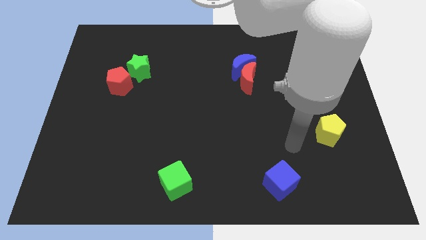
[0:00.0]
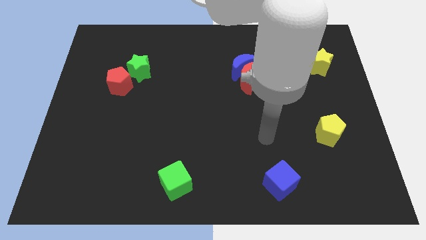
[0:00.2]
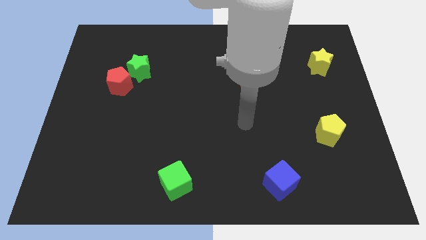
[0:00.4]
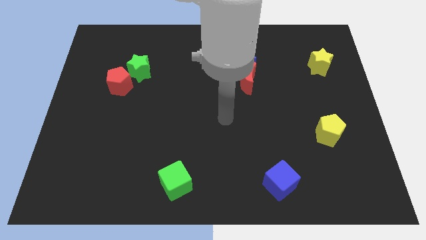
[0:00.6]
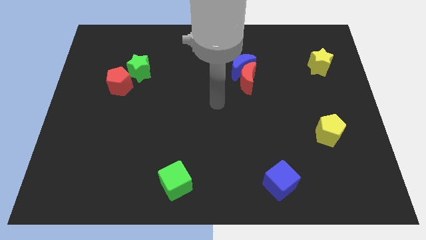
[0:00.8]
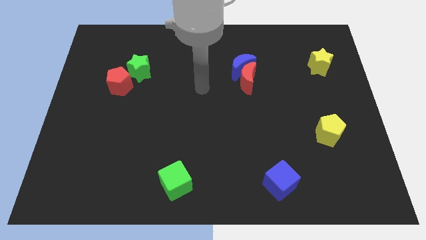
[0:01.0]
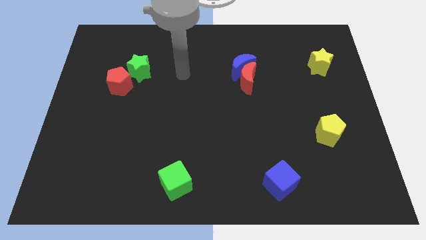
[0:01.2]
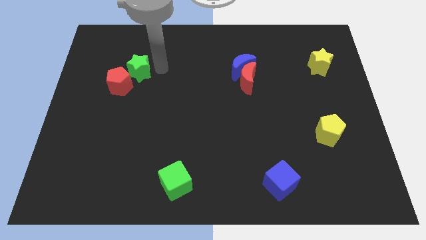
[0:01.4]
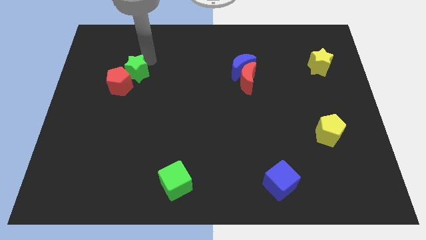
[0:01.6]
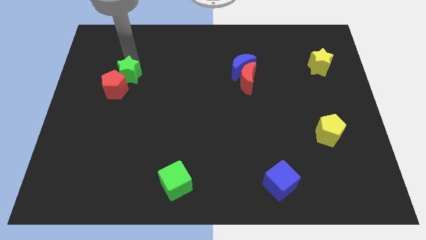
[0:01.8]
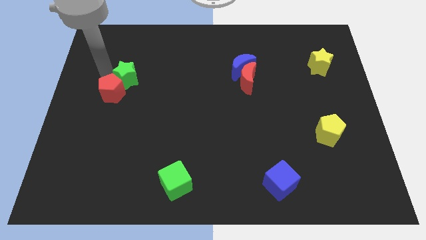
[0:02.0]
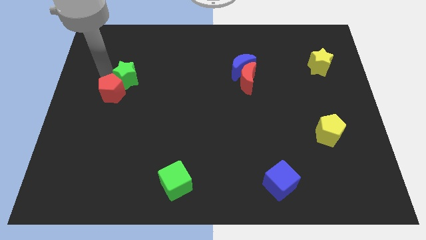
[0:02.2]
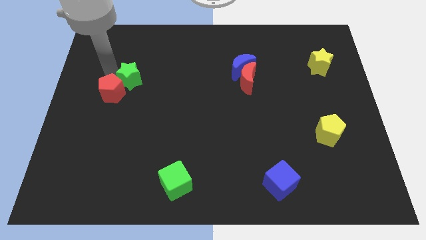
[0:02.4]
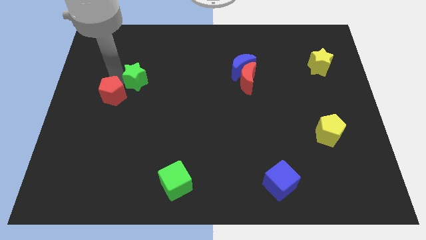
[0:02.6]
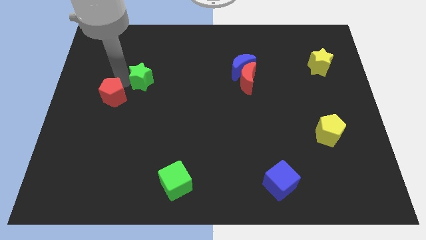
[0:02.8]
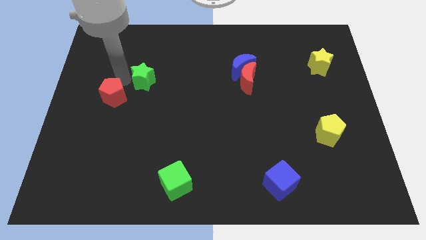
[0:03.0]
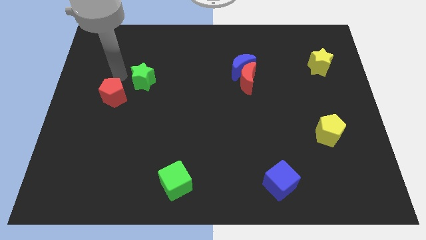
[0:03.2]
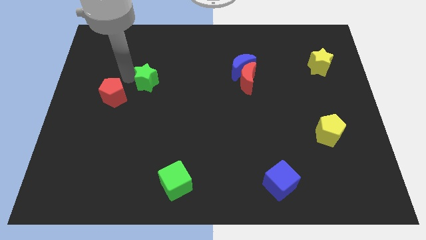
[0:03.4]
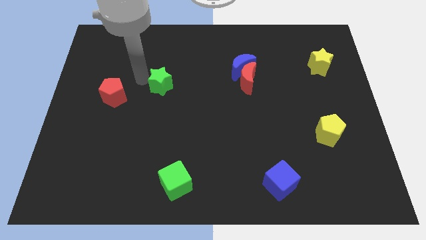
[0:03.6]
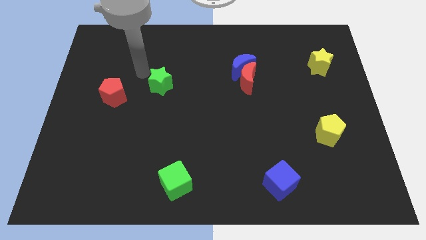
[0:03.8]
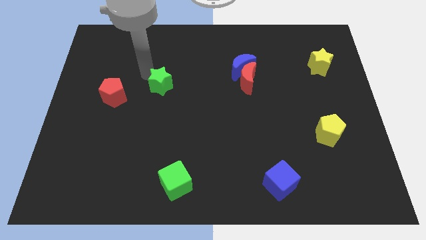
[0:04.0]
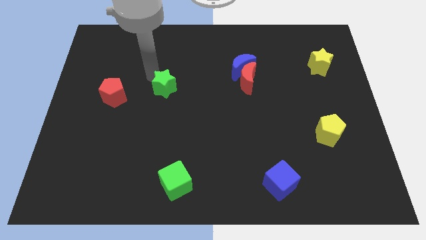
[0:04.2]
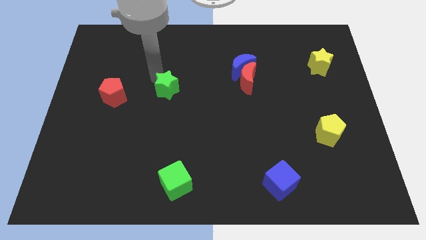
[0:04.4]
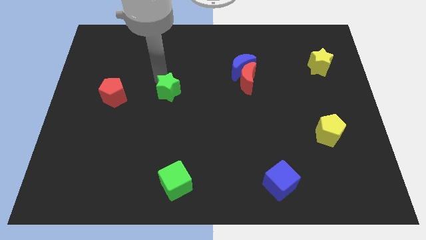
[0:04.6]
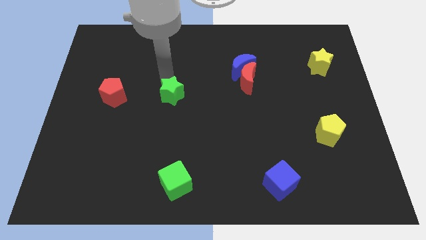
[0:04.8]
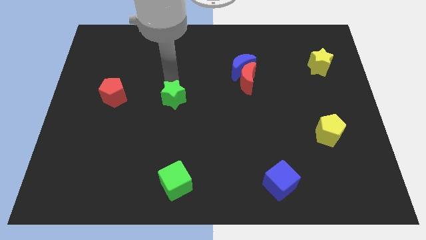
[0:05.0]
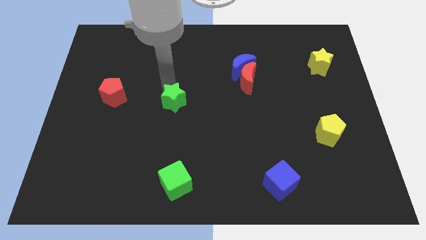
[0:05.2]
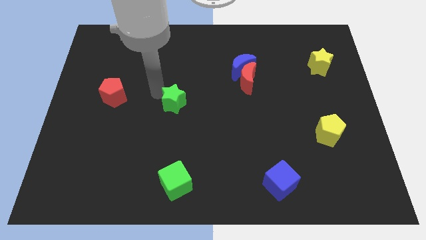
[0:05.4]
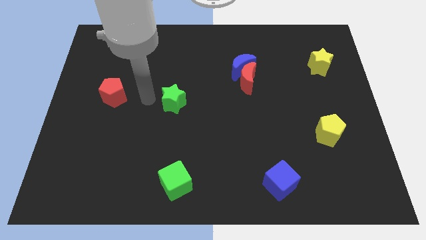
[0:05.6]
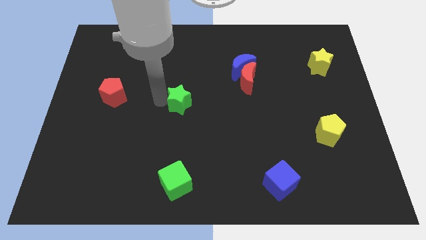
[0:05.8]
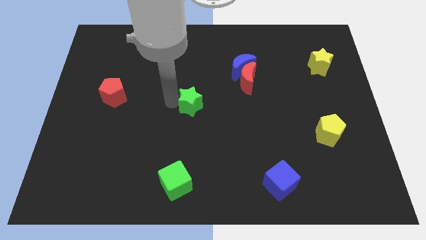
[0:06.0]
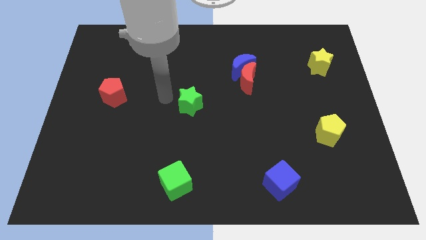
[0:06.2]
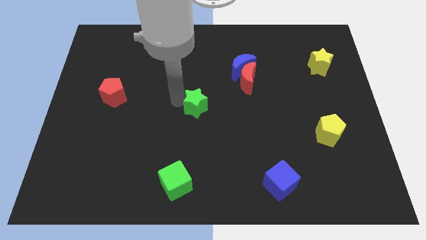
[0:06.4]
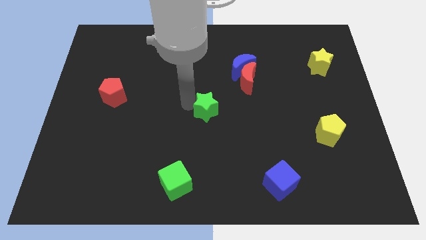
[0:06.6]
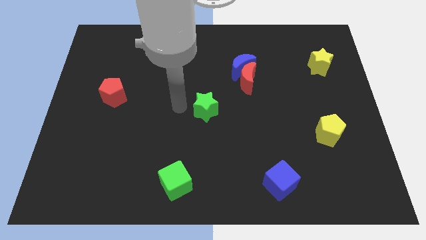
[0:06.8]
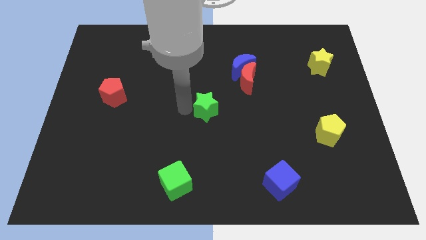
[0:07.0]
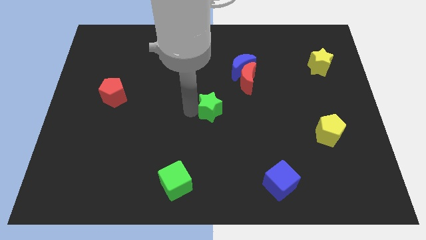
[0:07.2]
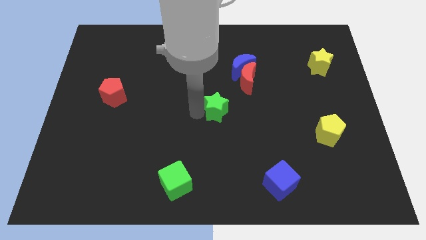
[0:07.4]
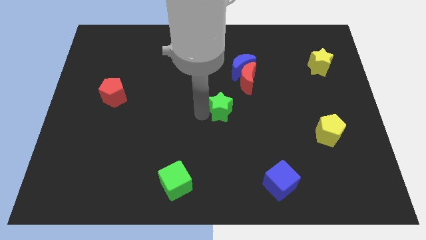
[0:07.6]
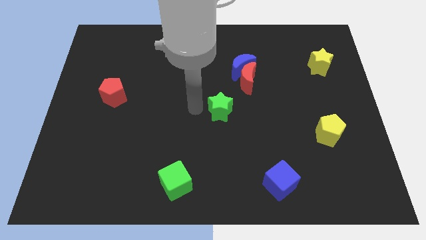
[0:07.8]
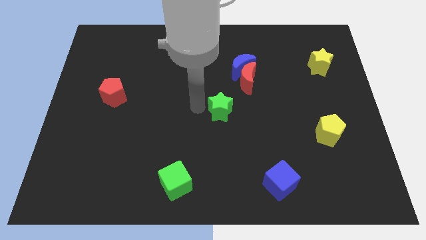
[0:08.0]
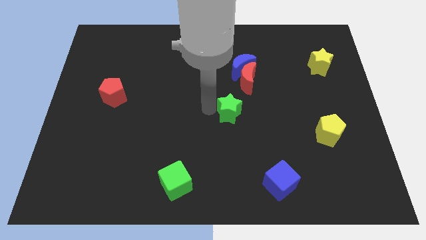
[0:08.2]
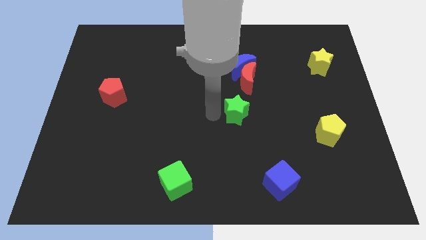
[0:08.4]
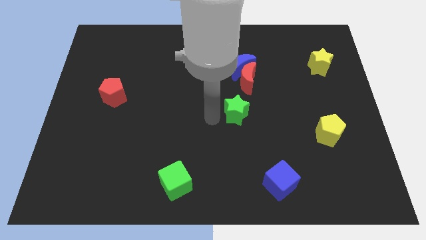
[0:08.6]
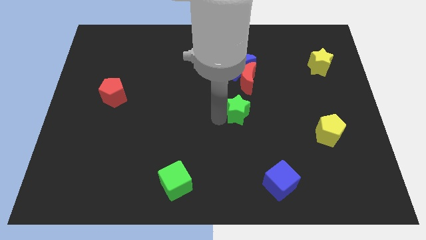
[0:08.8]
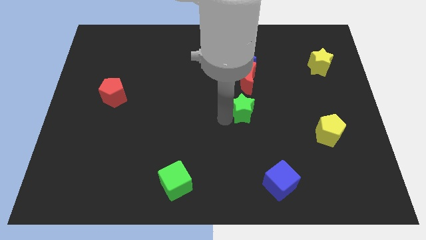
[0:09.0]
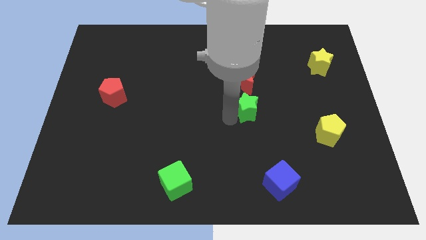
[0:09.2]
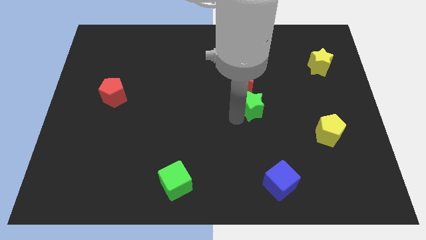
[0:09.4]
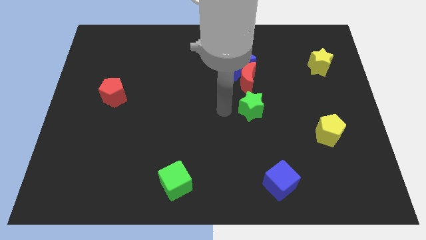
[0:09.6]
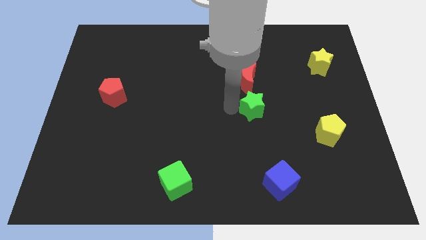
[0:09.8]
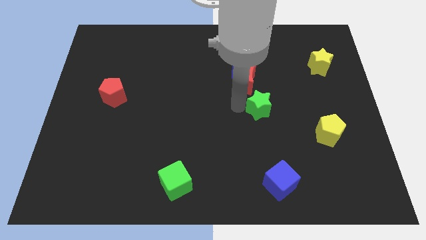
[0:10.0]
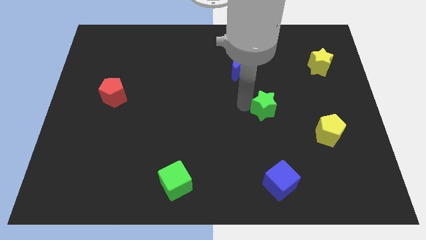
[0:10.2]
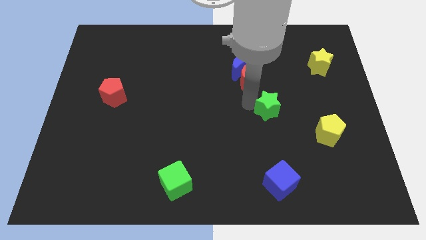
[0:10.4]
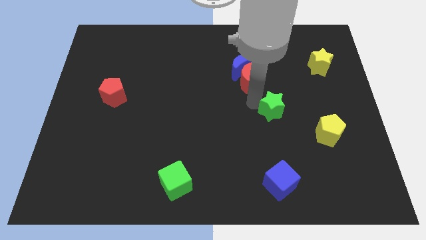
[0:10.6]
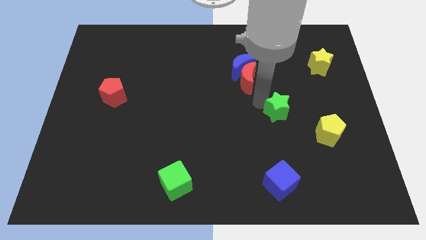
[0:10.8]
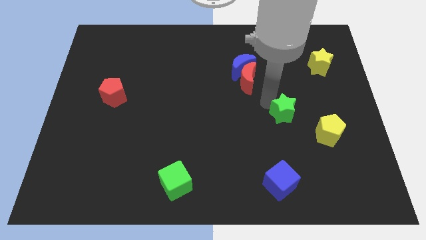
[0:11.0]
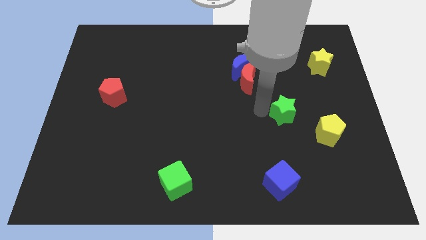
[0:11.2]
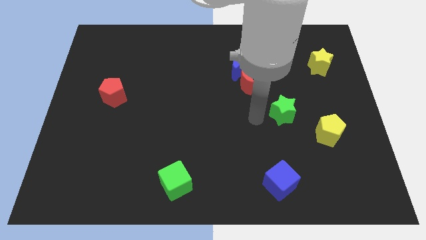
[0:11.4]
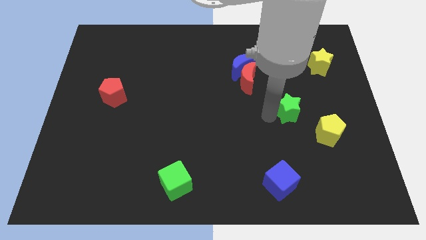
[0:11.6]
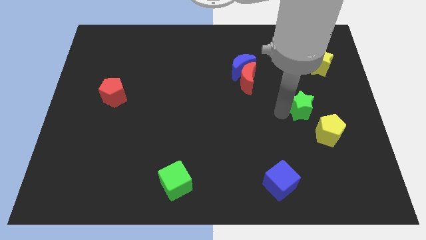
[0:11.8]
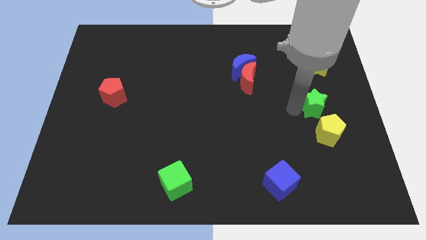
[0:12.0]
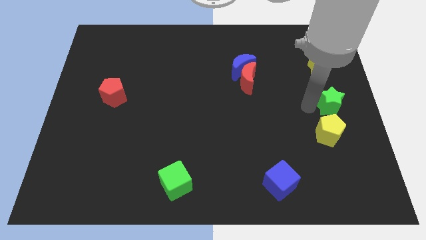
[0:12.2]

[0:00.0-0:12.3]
put the green star to the right side

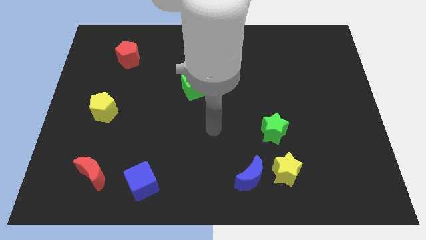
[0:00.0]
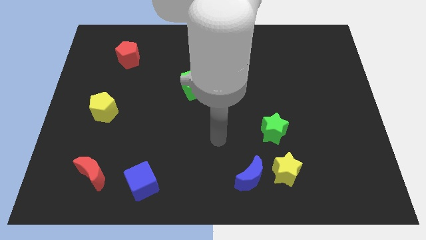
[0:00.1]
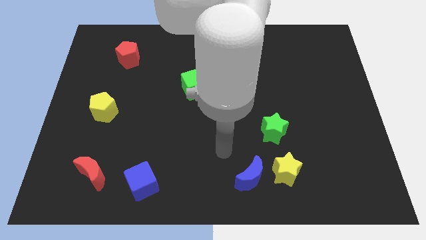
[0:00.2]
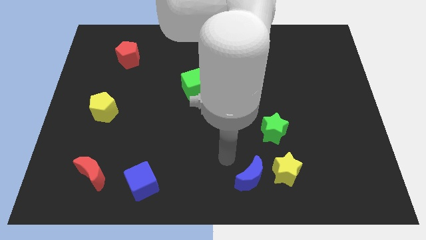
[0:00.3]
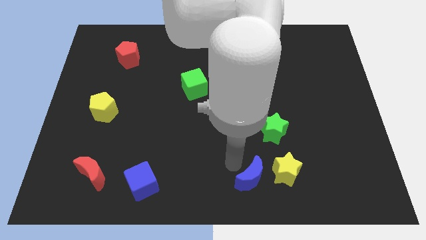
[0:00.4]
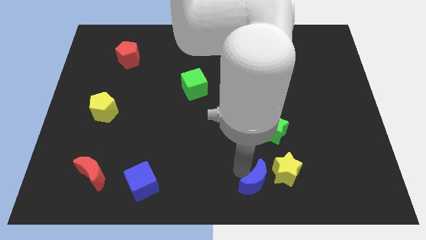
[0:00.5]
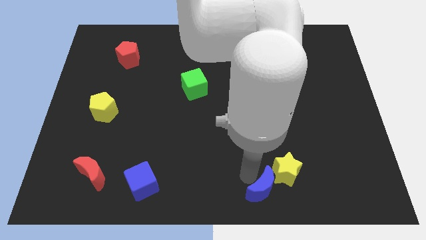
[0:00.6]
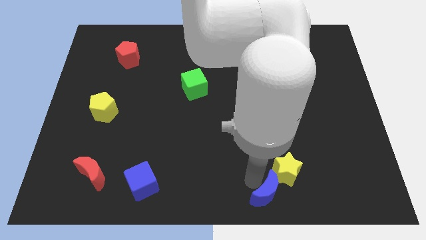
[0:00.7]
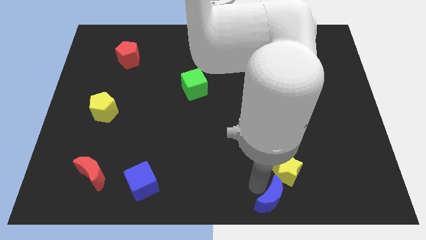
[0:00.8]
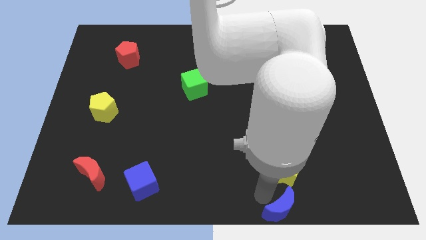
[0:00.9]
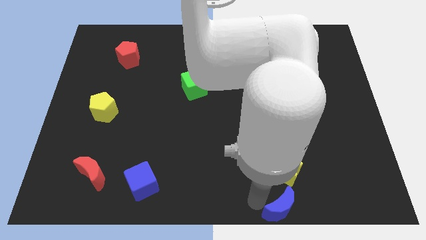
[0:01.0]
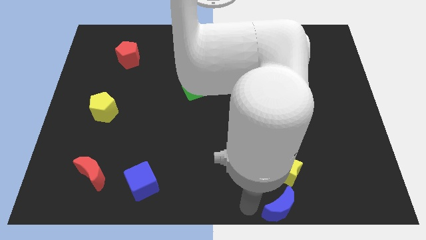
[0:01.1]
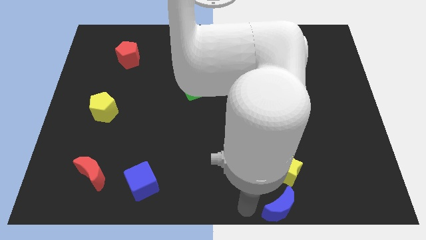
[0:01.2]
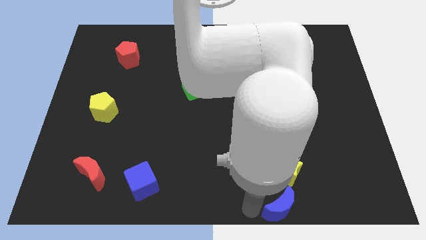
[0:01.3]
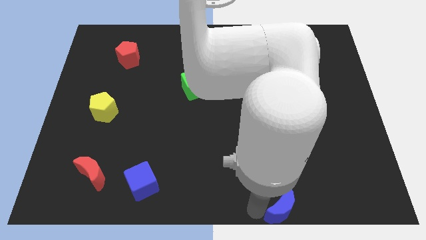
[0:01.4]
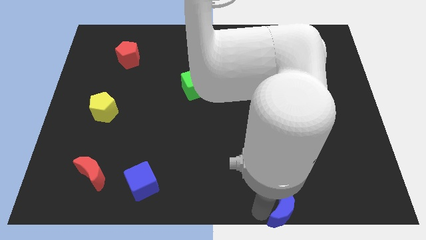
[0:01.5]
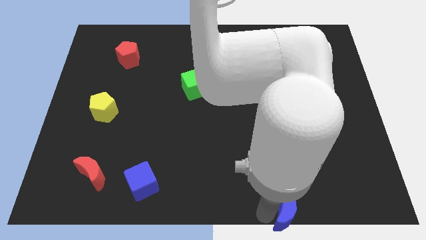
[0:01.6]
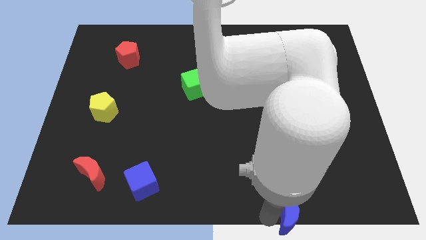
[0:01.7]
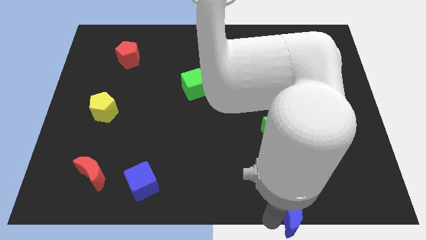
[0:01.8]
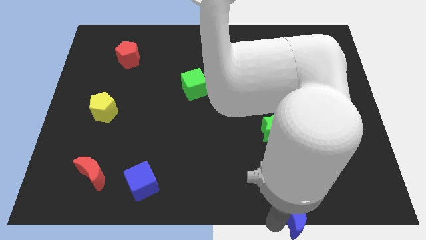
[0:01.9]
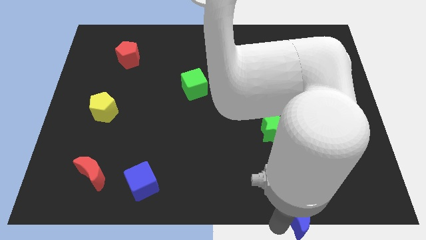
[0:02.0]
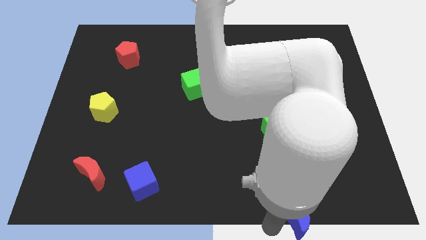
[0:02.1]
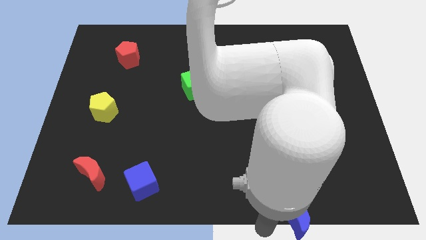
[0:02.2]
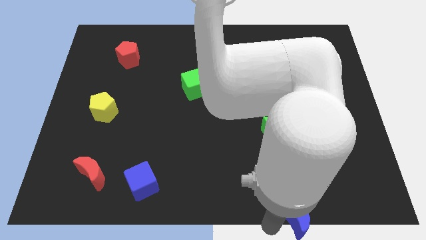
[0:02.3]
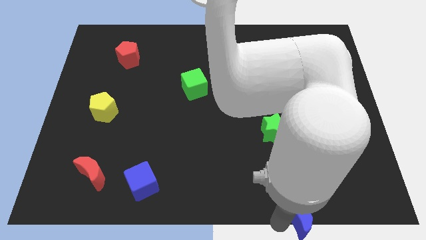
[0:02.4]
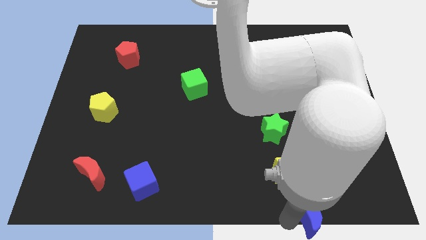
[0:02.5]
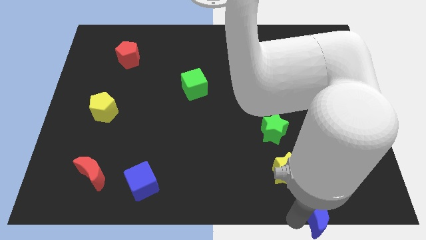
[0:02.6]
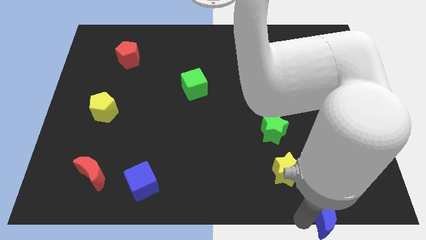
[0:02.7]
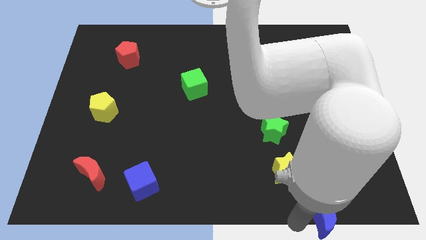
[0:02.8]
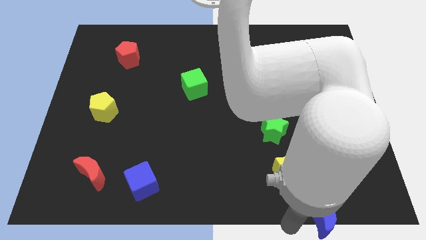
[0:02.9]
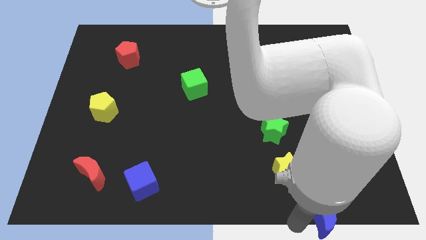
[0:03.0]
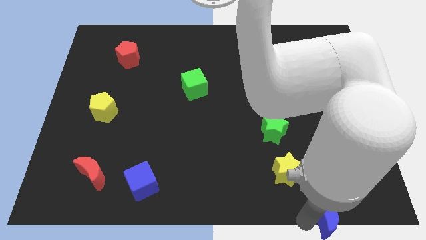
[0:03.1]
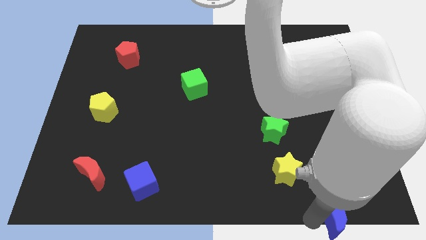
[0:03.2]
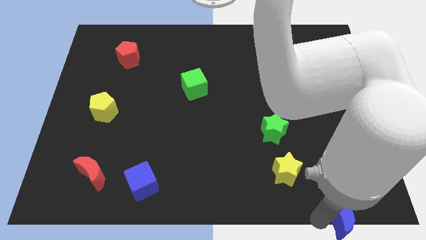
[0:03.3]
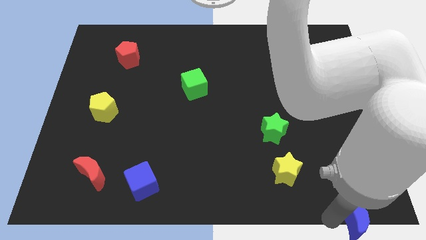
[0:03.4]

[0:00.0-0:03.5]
slide the blue moon to the bottom right
